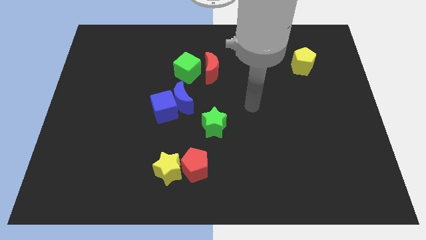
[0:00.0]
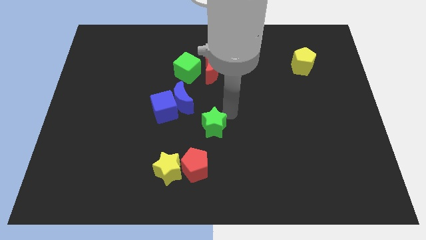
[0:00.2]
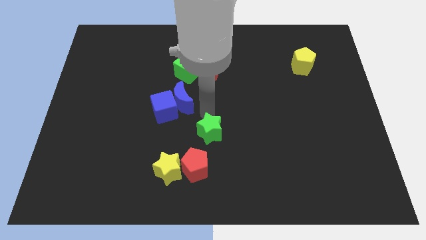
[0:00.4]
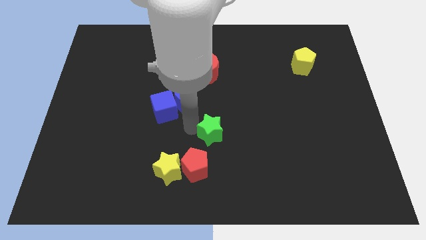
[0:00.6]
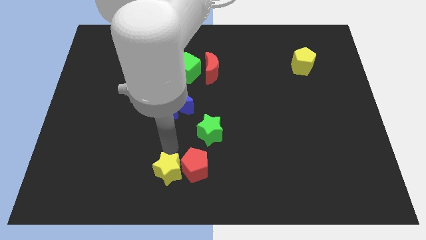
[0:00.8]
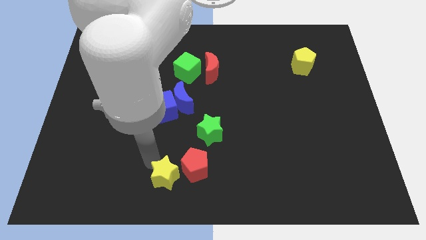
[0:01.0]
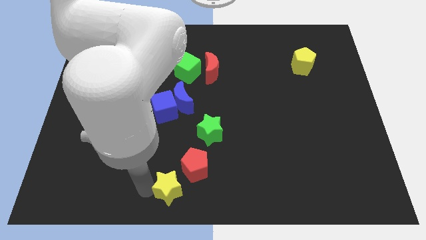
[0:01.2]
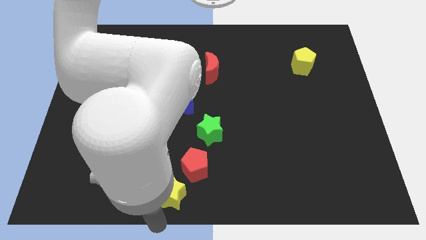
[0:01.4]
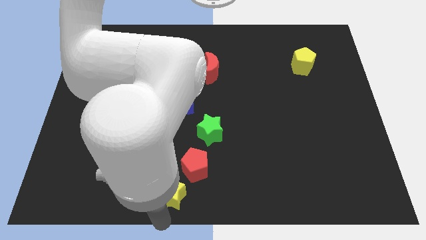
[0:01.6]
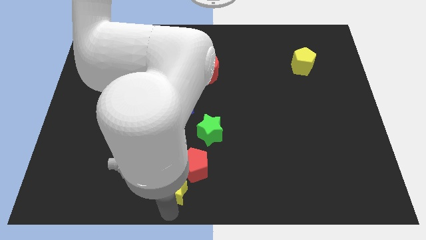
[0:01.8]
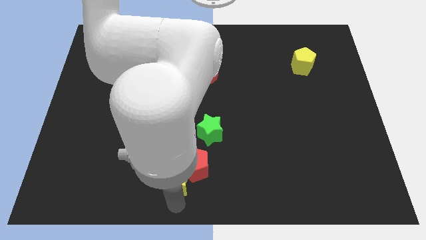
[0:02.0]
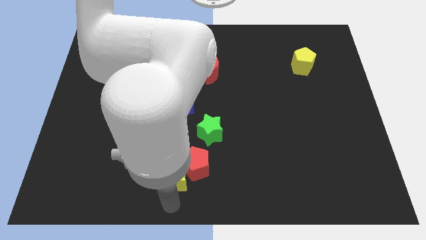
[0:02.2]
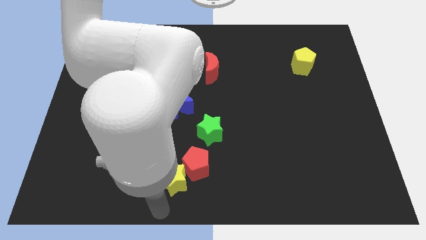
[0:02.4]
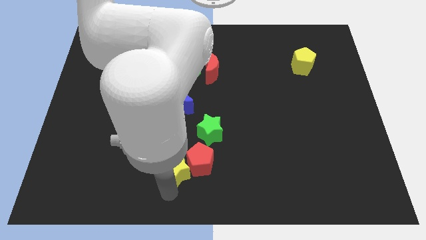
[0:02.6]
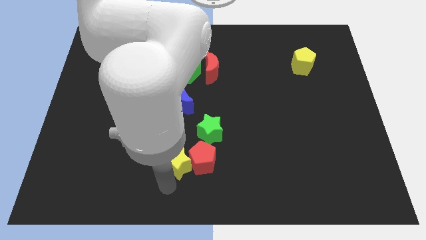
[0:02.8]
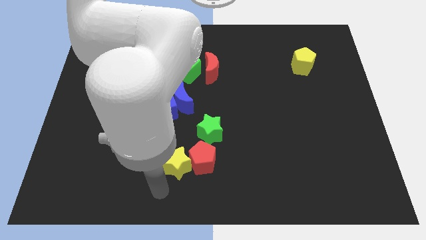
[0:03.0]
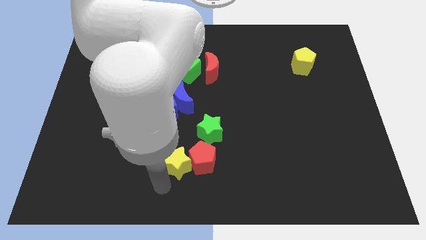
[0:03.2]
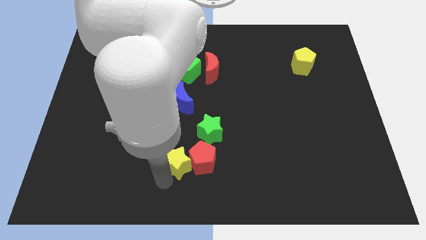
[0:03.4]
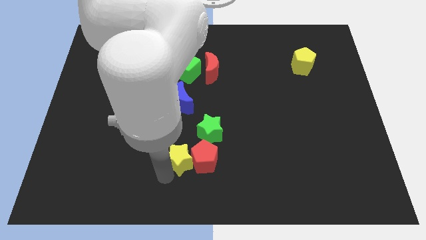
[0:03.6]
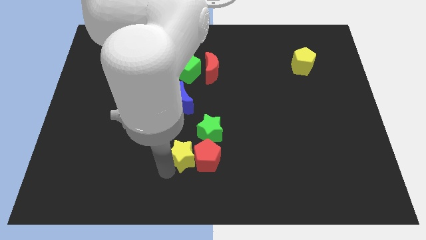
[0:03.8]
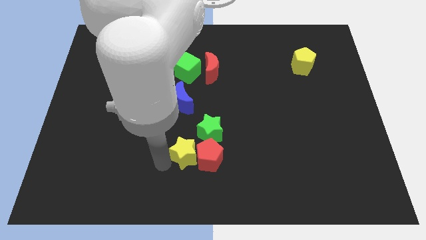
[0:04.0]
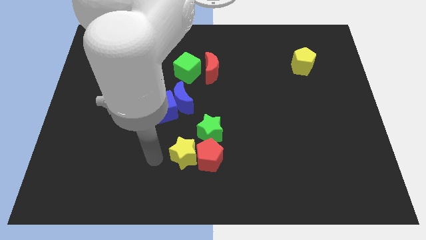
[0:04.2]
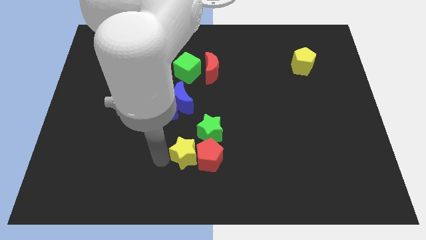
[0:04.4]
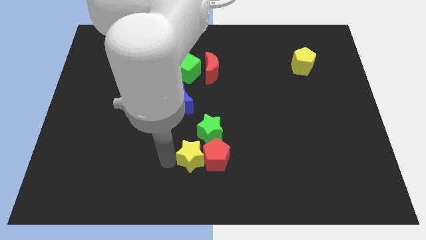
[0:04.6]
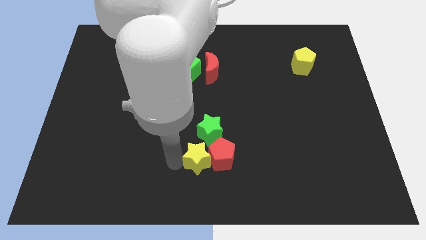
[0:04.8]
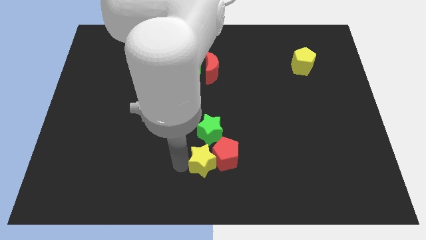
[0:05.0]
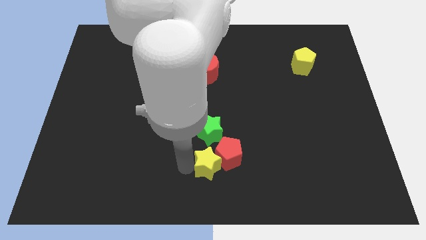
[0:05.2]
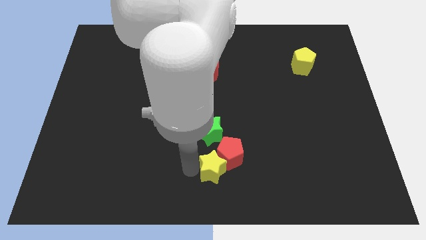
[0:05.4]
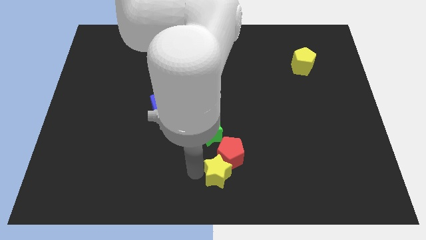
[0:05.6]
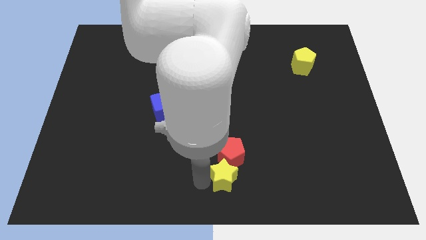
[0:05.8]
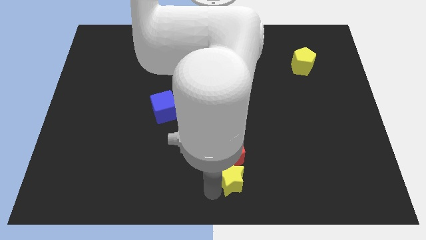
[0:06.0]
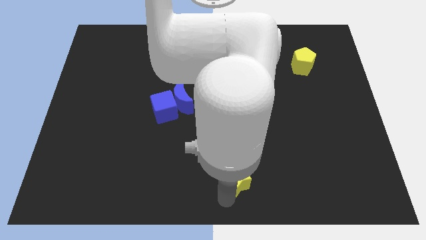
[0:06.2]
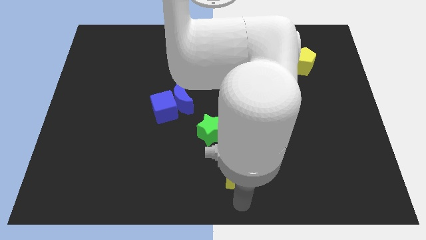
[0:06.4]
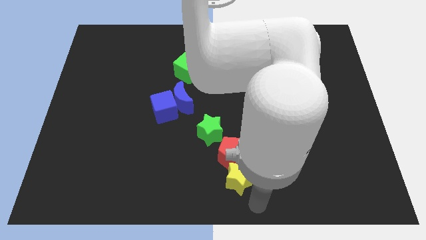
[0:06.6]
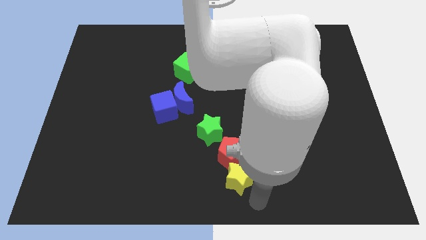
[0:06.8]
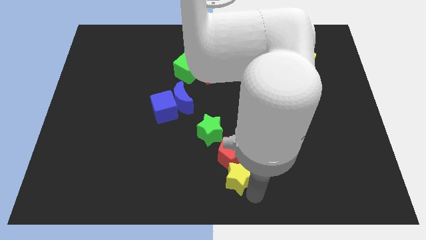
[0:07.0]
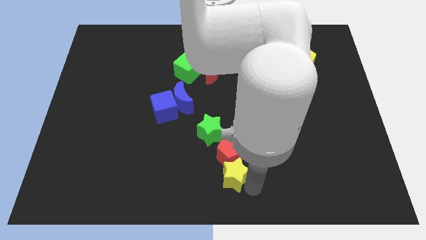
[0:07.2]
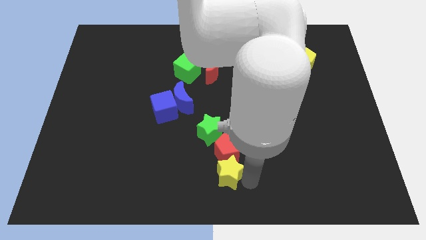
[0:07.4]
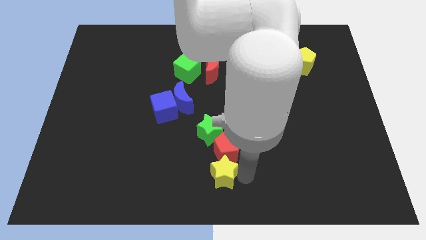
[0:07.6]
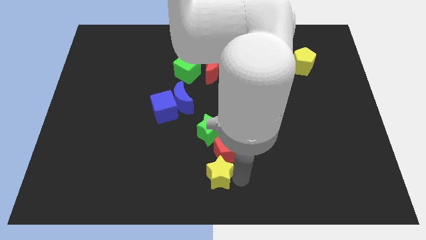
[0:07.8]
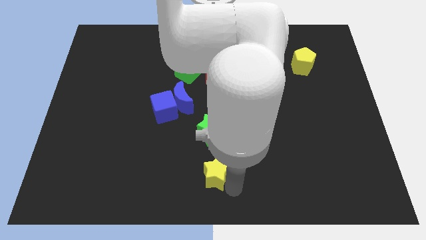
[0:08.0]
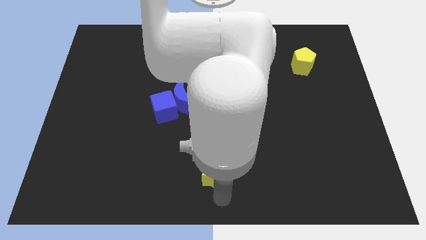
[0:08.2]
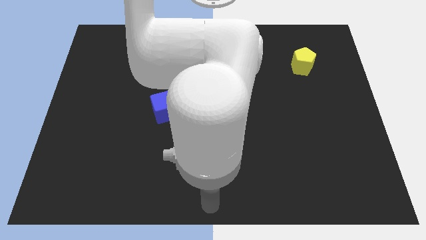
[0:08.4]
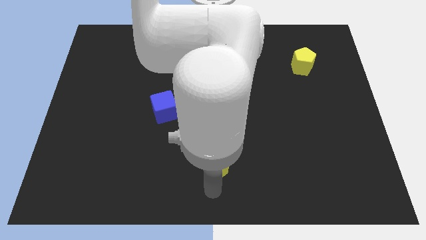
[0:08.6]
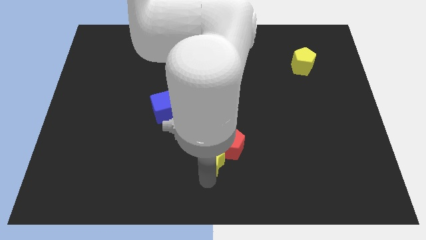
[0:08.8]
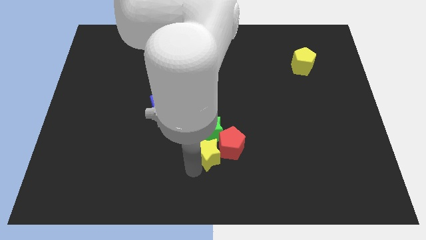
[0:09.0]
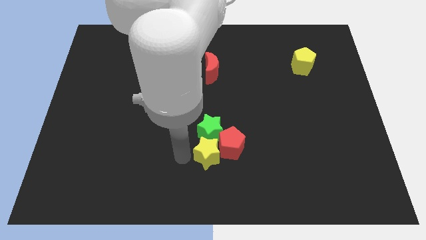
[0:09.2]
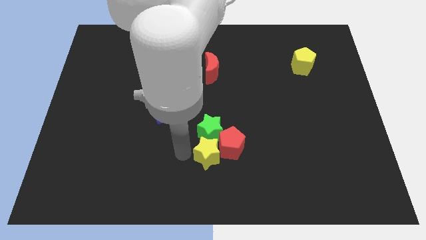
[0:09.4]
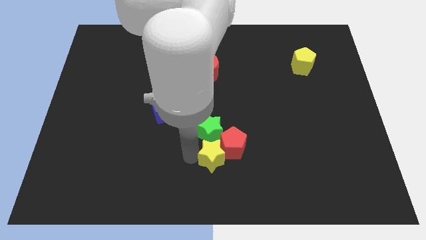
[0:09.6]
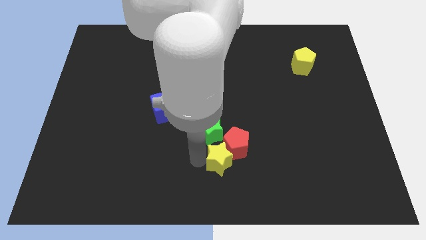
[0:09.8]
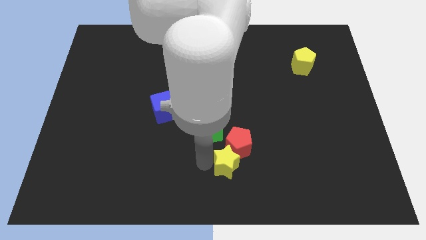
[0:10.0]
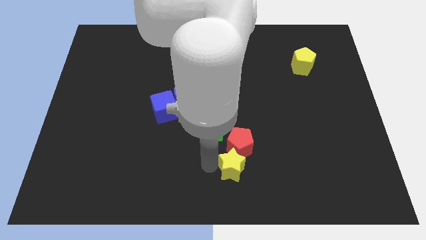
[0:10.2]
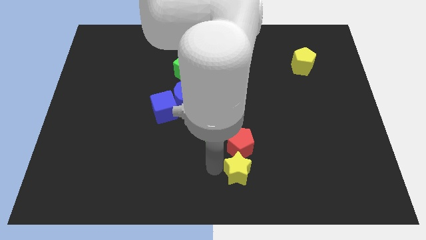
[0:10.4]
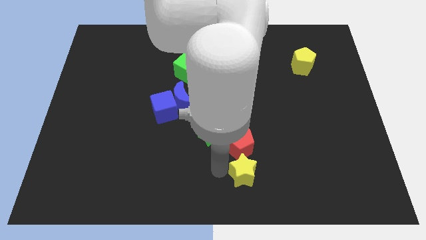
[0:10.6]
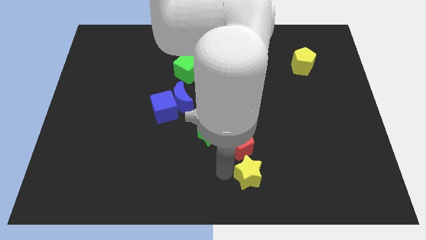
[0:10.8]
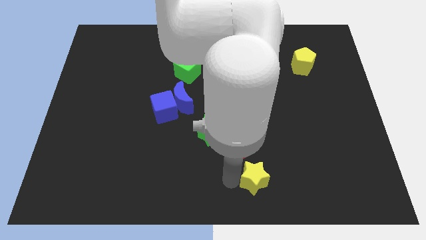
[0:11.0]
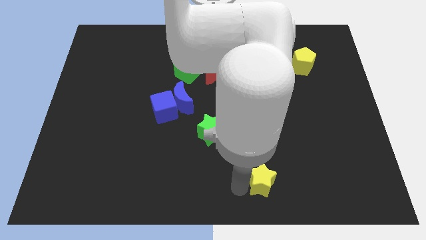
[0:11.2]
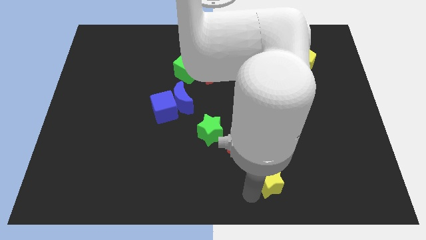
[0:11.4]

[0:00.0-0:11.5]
push the yellow star right

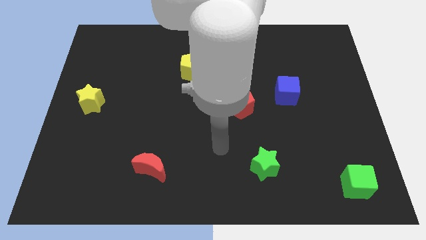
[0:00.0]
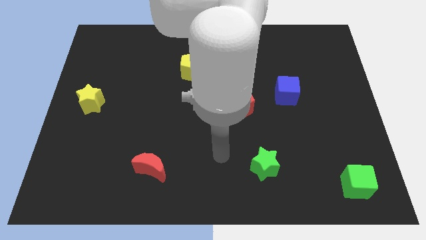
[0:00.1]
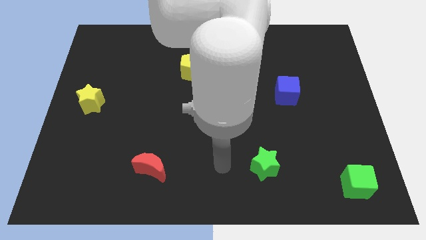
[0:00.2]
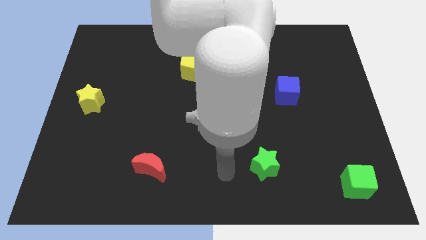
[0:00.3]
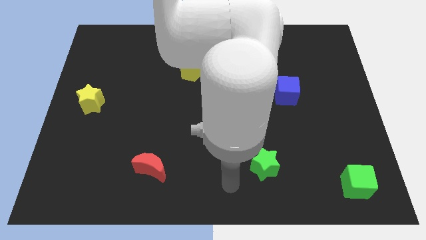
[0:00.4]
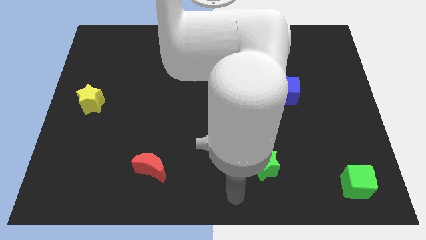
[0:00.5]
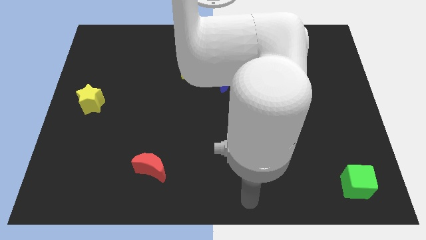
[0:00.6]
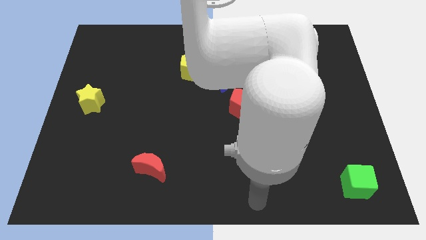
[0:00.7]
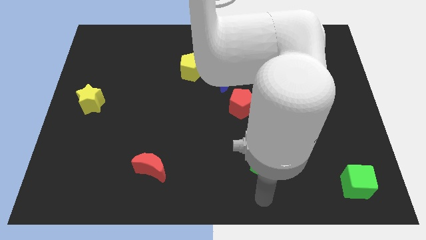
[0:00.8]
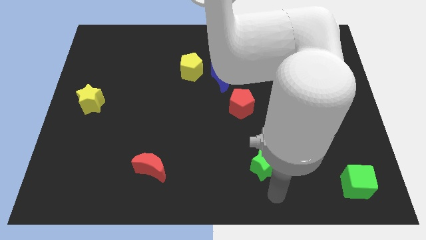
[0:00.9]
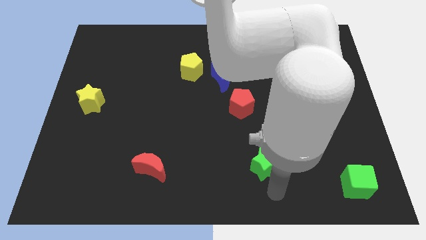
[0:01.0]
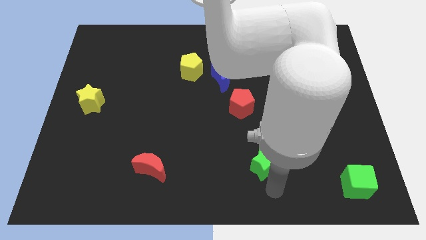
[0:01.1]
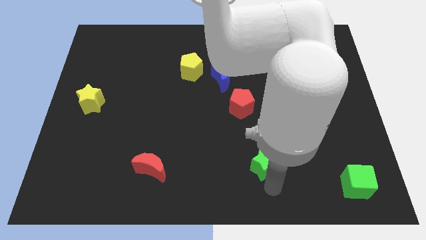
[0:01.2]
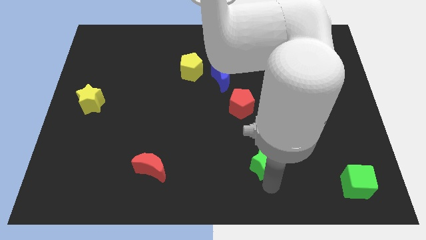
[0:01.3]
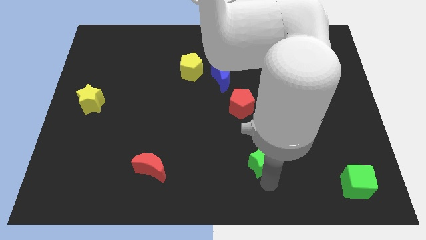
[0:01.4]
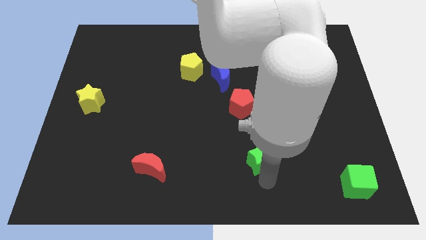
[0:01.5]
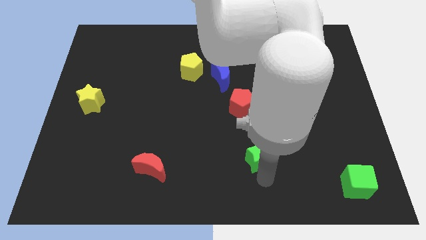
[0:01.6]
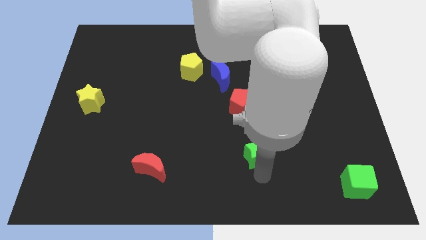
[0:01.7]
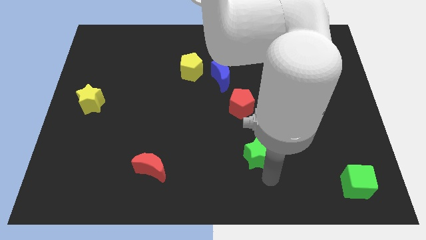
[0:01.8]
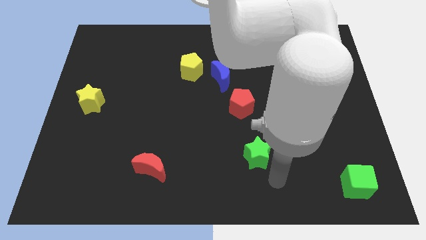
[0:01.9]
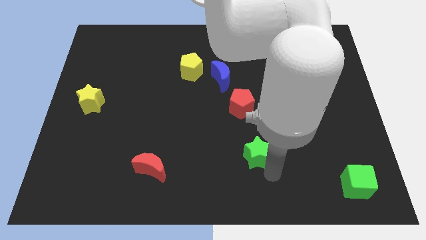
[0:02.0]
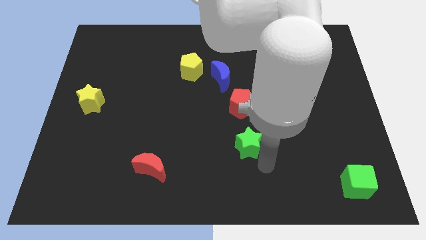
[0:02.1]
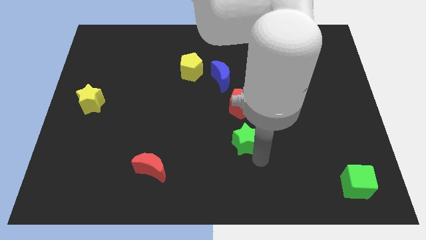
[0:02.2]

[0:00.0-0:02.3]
move the green star somewhat upwards and left
